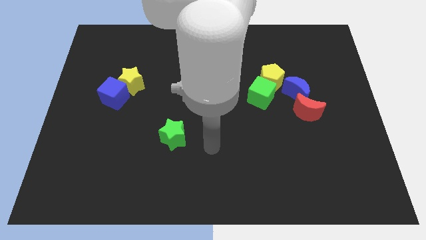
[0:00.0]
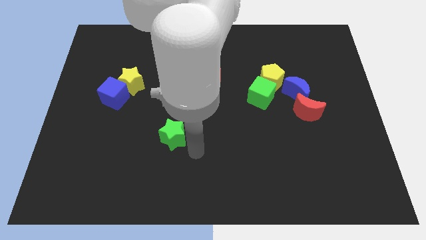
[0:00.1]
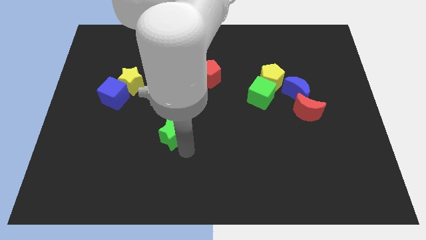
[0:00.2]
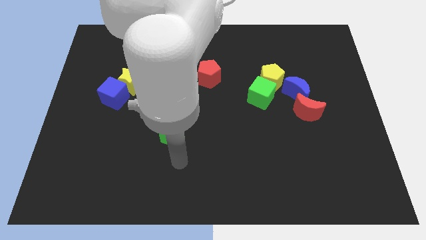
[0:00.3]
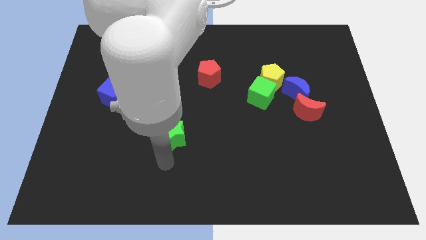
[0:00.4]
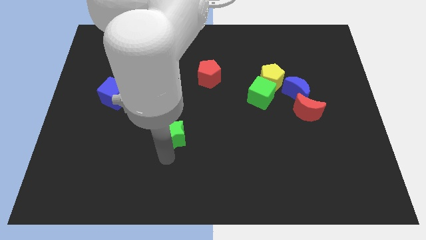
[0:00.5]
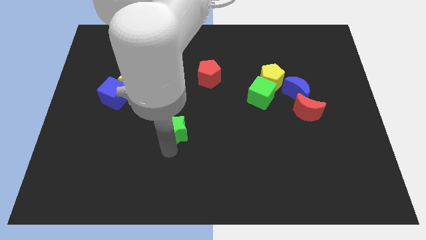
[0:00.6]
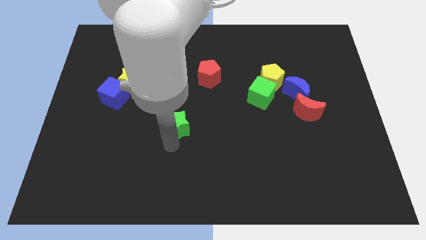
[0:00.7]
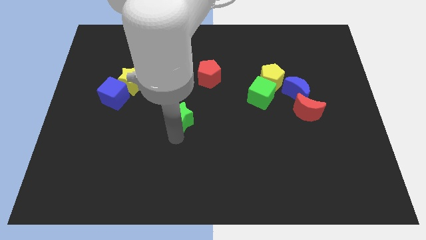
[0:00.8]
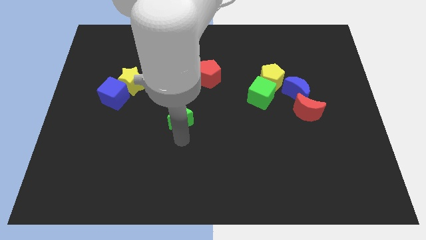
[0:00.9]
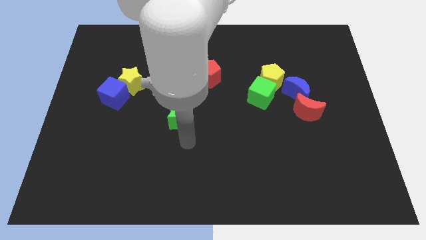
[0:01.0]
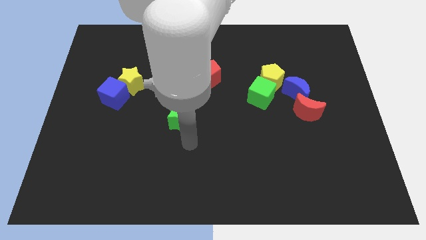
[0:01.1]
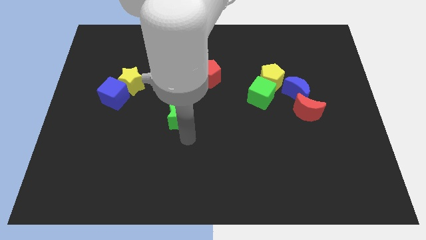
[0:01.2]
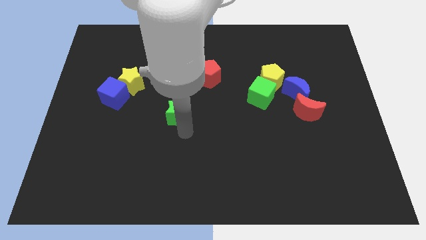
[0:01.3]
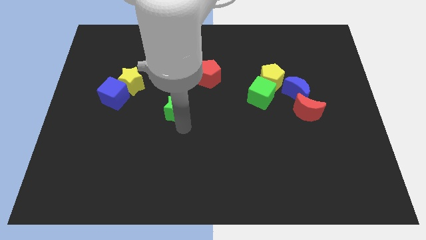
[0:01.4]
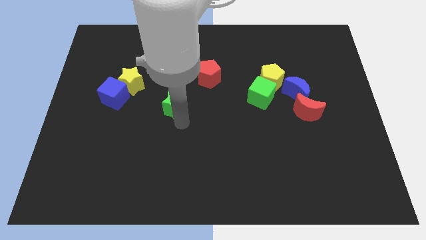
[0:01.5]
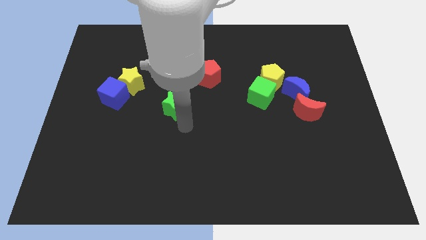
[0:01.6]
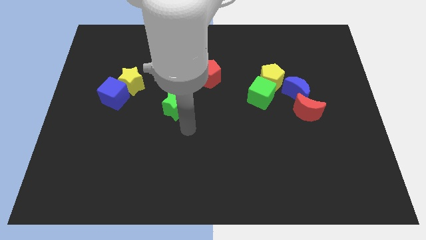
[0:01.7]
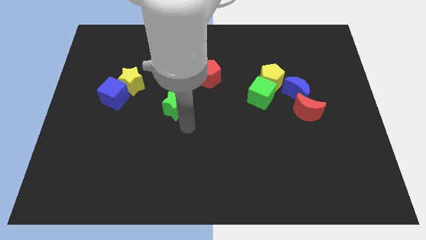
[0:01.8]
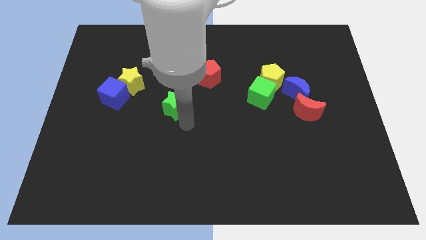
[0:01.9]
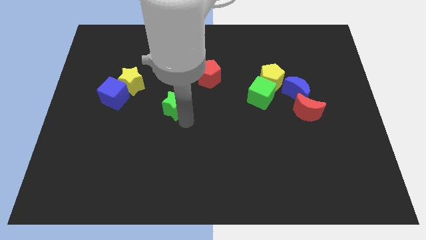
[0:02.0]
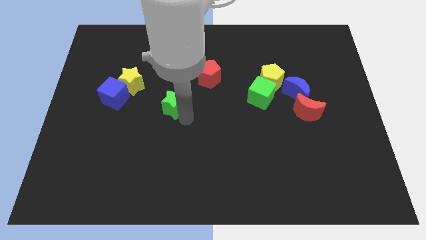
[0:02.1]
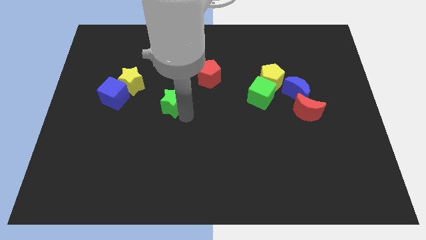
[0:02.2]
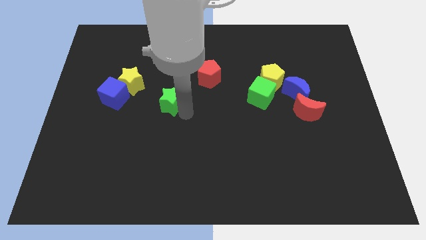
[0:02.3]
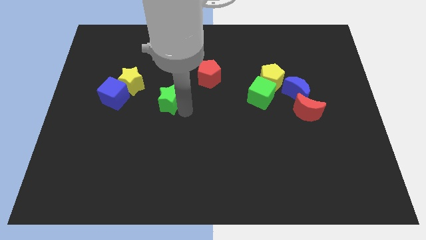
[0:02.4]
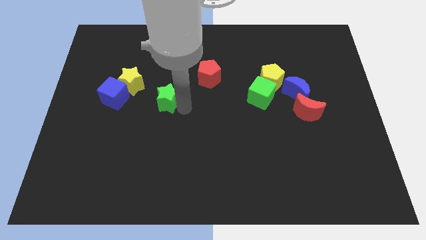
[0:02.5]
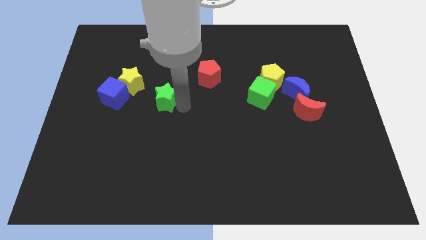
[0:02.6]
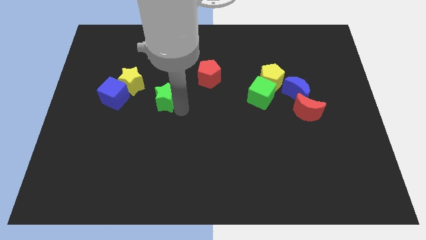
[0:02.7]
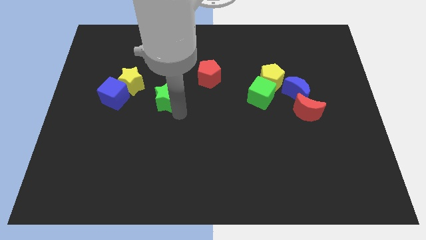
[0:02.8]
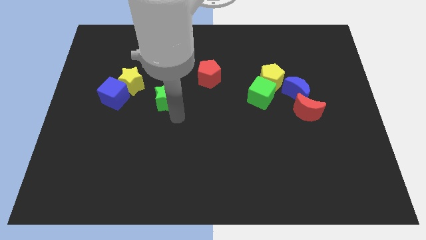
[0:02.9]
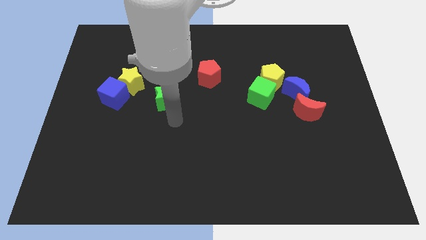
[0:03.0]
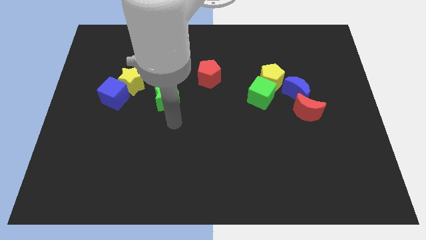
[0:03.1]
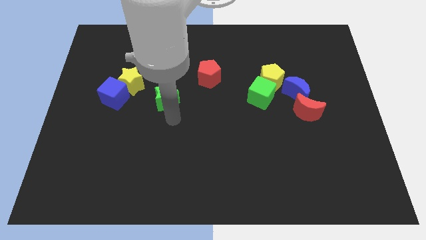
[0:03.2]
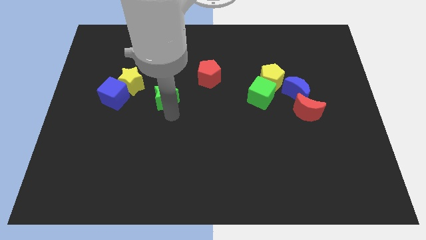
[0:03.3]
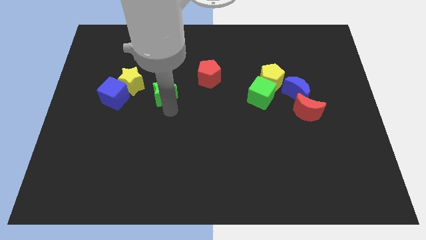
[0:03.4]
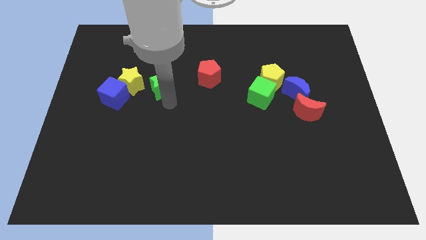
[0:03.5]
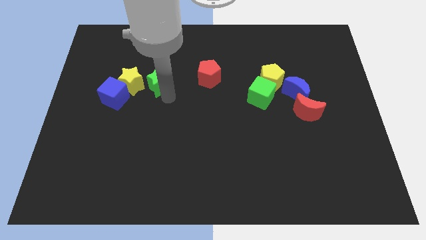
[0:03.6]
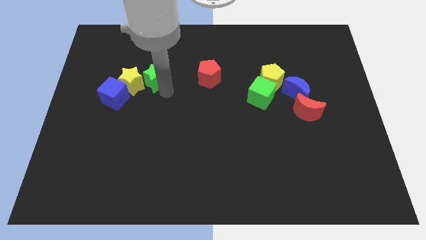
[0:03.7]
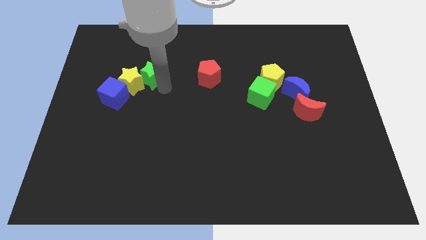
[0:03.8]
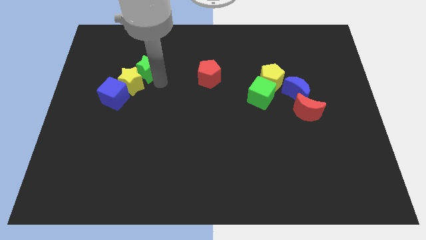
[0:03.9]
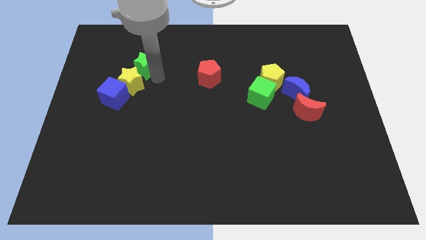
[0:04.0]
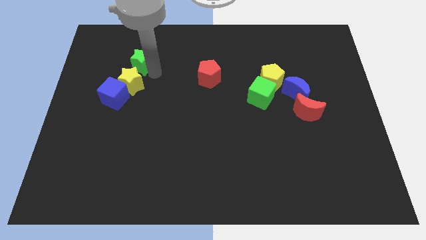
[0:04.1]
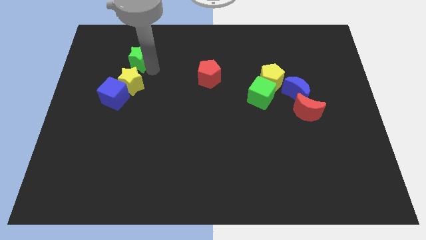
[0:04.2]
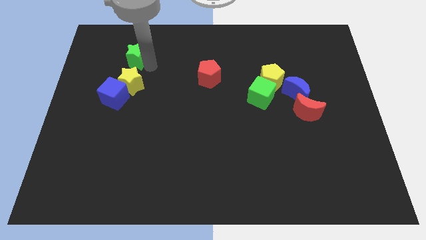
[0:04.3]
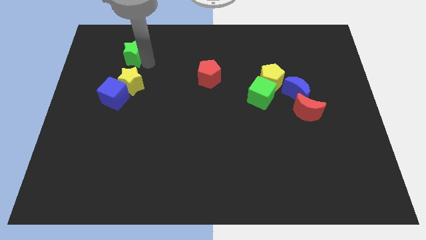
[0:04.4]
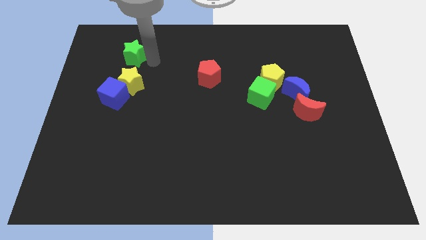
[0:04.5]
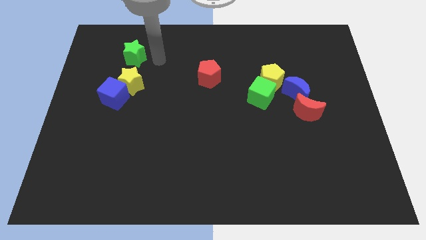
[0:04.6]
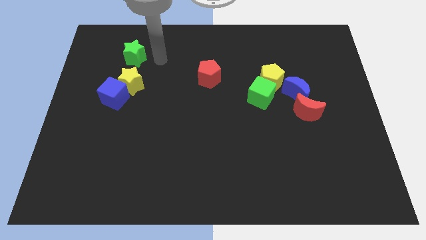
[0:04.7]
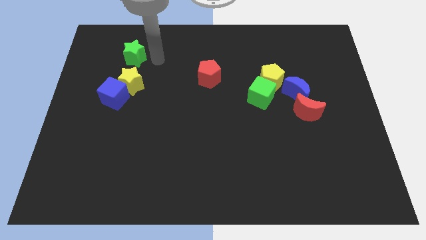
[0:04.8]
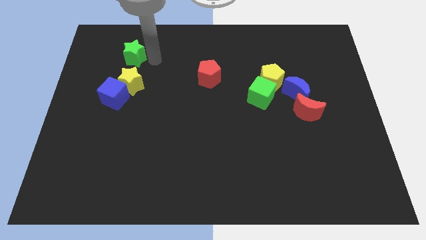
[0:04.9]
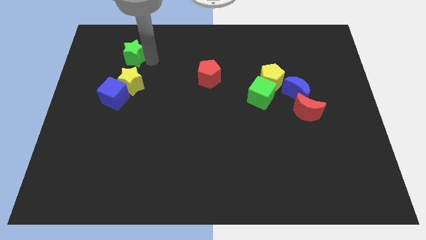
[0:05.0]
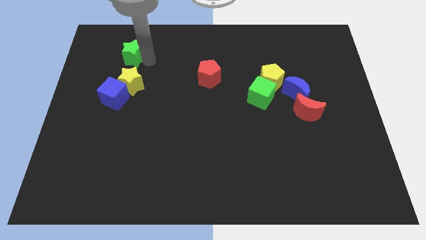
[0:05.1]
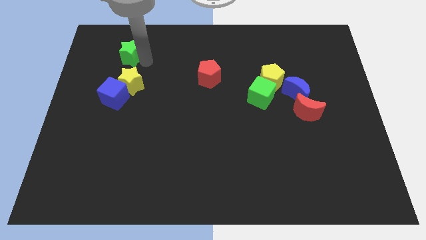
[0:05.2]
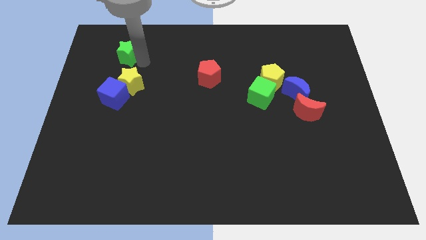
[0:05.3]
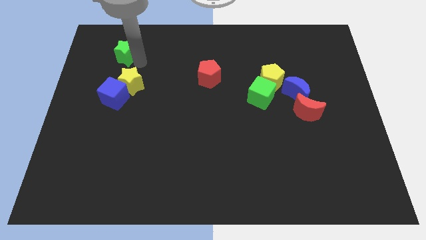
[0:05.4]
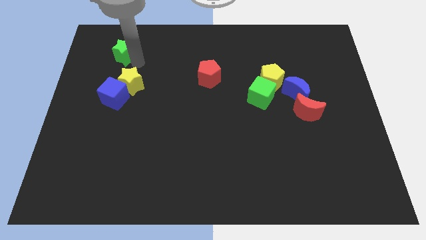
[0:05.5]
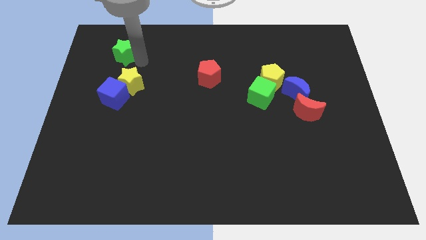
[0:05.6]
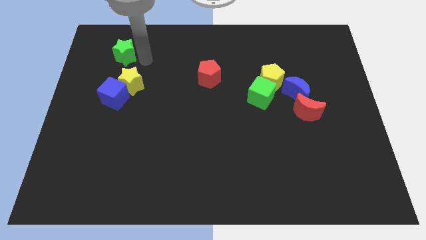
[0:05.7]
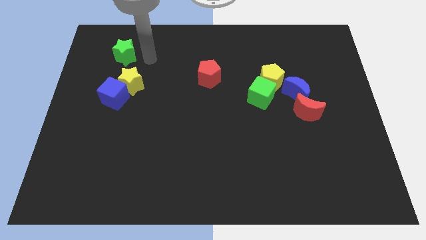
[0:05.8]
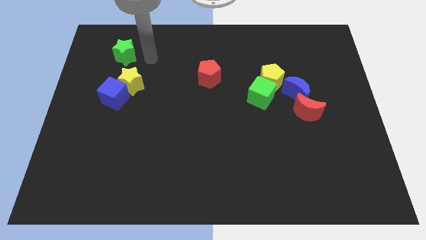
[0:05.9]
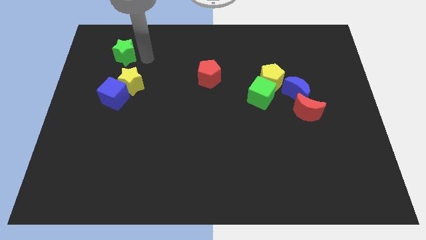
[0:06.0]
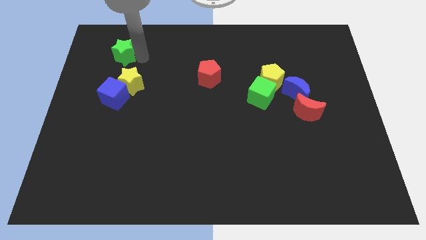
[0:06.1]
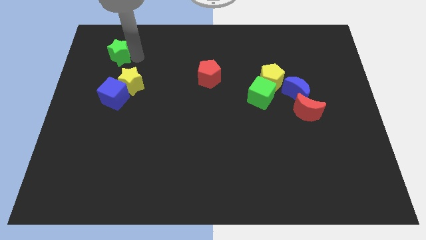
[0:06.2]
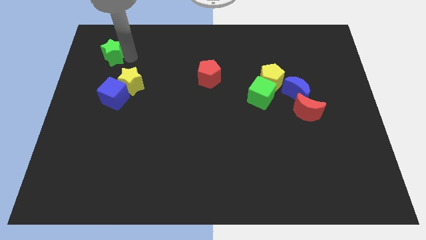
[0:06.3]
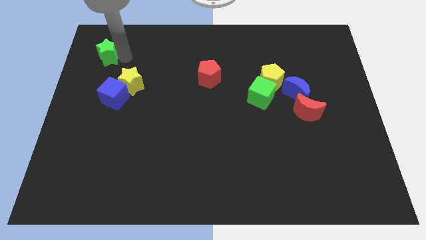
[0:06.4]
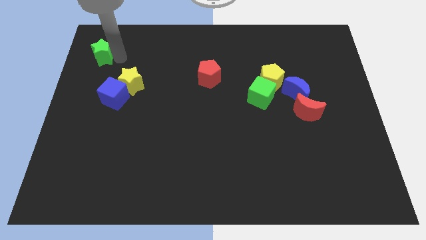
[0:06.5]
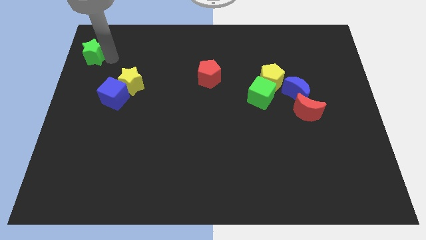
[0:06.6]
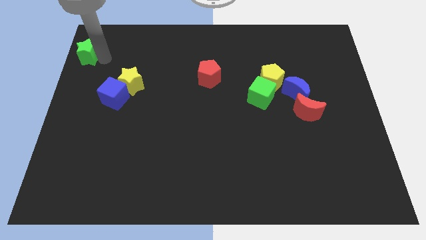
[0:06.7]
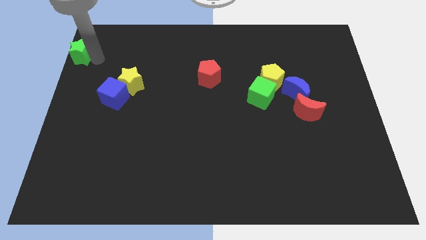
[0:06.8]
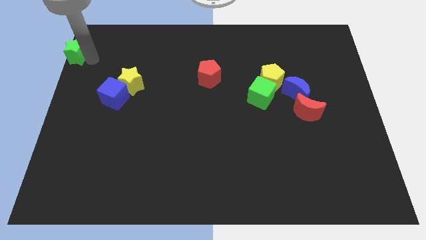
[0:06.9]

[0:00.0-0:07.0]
slide the green star to the top left corner
